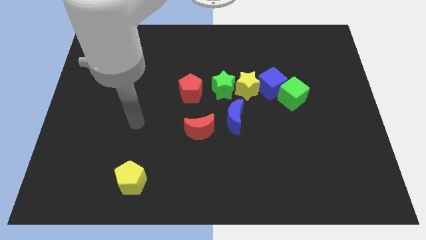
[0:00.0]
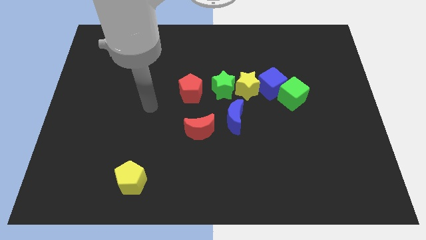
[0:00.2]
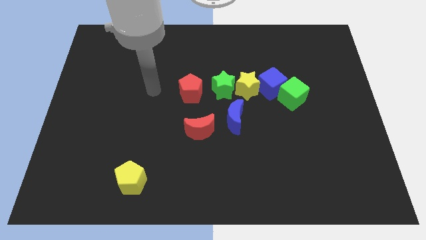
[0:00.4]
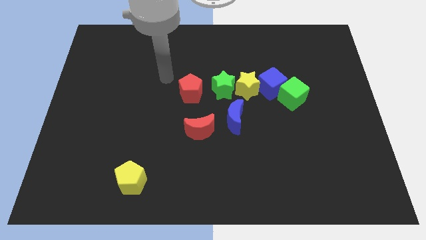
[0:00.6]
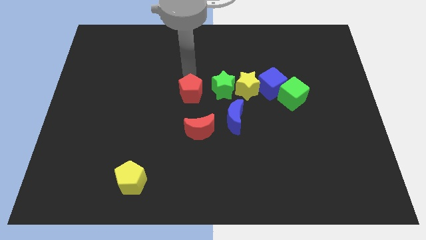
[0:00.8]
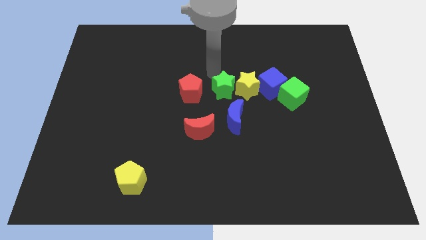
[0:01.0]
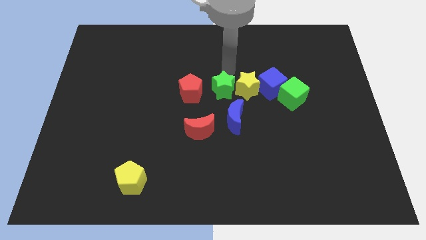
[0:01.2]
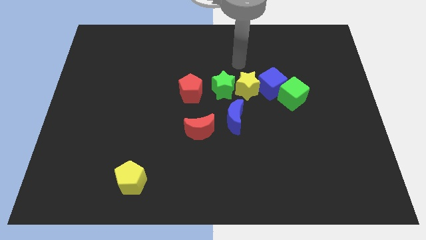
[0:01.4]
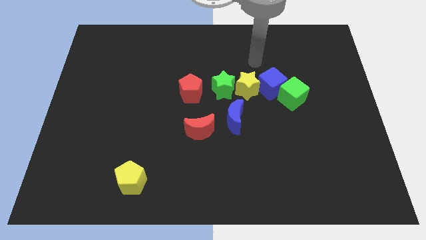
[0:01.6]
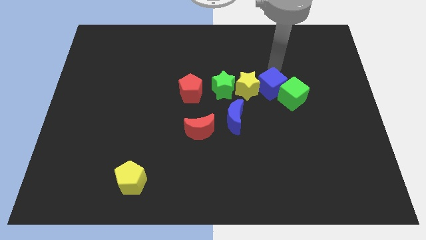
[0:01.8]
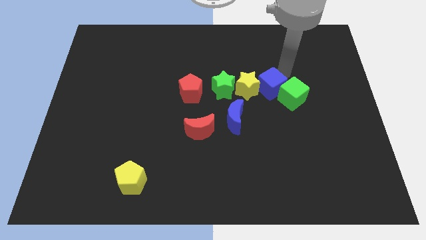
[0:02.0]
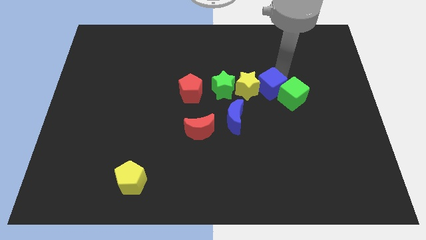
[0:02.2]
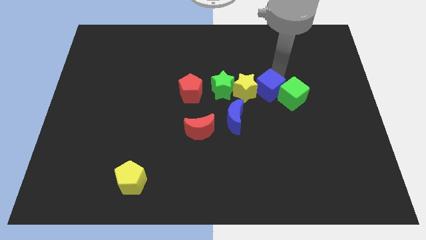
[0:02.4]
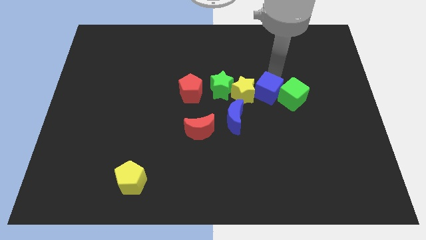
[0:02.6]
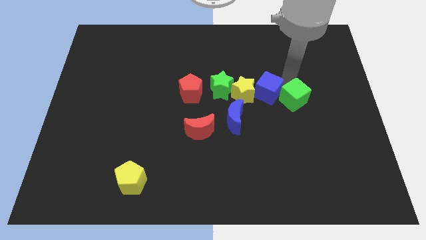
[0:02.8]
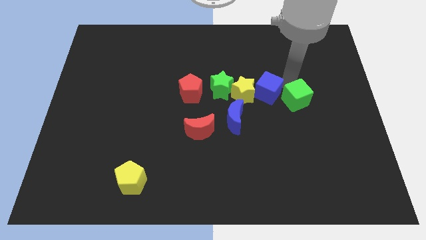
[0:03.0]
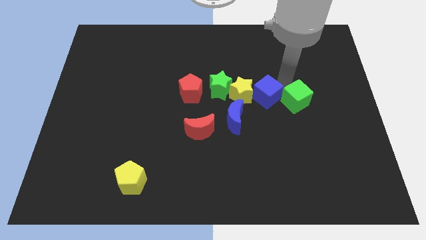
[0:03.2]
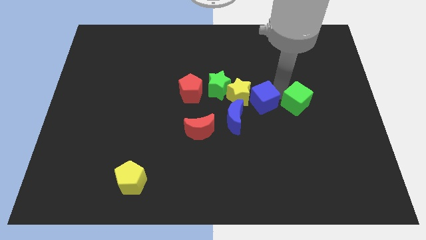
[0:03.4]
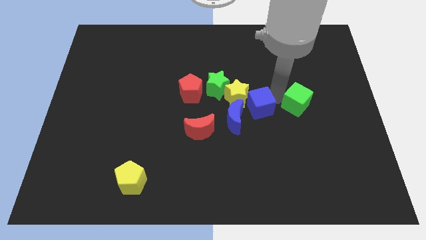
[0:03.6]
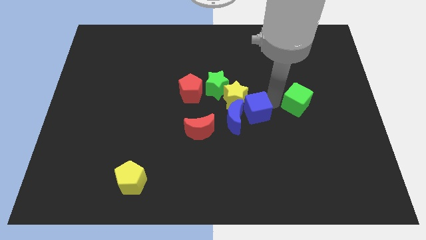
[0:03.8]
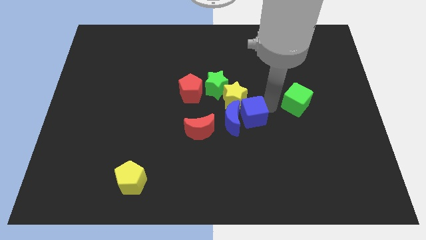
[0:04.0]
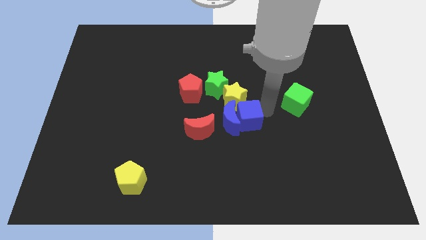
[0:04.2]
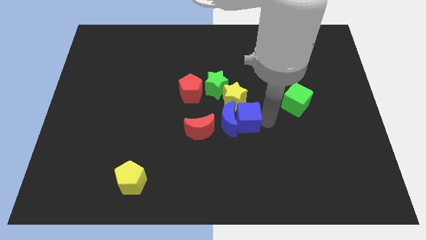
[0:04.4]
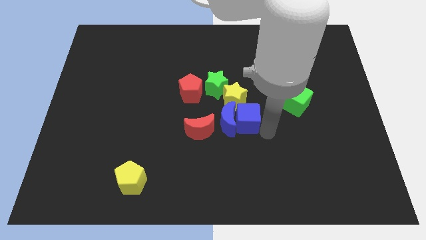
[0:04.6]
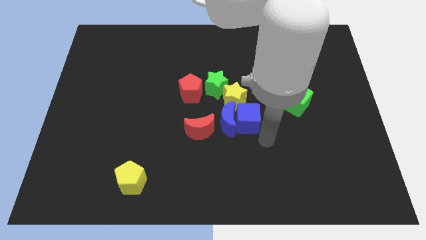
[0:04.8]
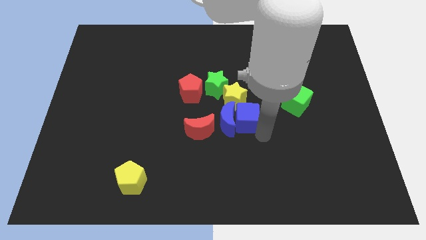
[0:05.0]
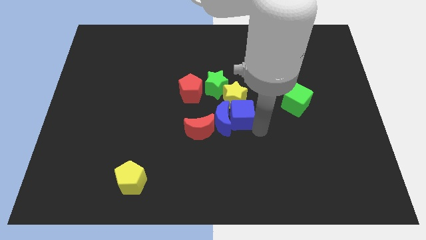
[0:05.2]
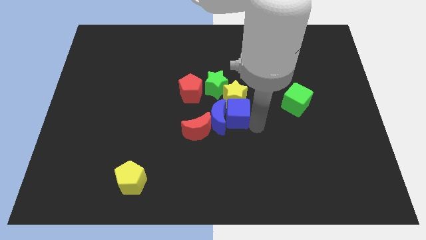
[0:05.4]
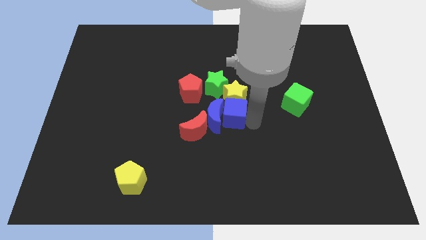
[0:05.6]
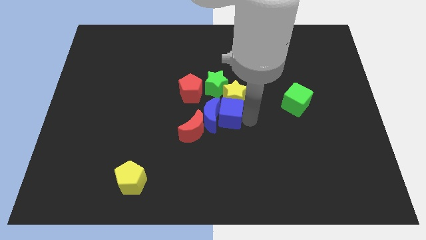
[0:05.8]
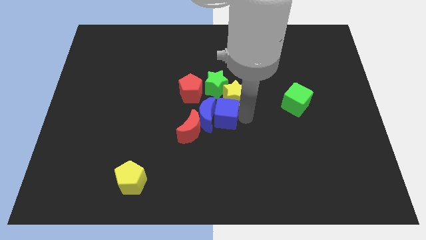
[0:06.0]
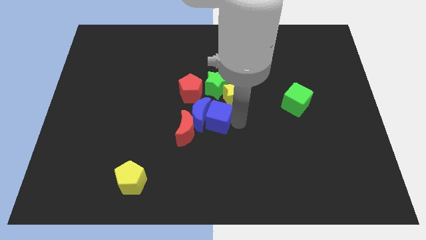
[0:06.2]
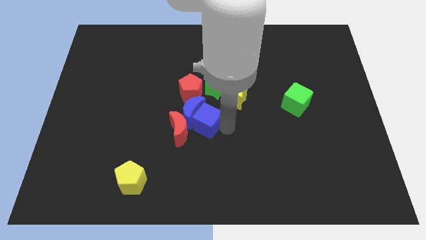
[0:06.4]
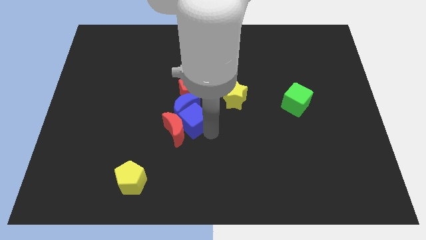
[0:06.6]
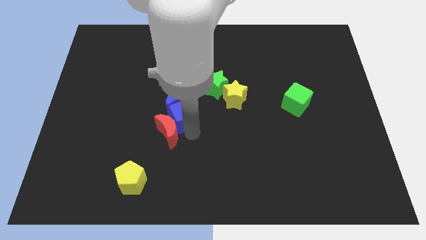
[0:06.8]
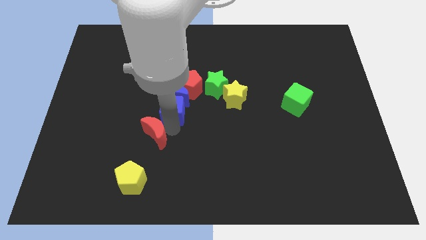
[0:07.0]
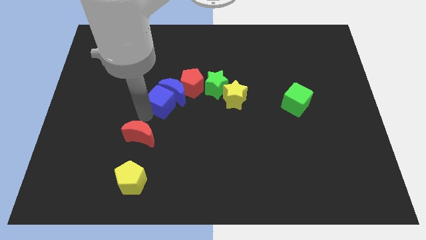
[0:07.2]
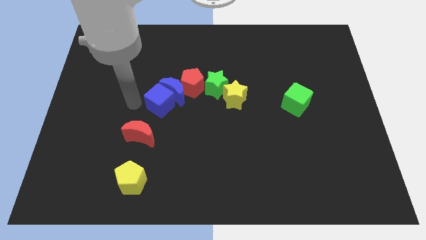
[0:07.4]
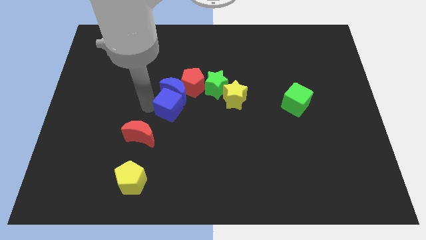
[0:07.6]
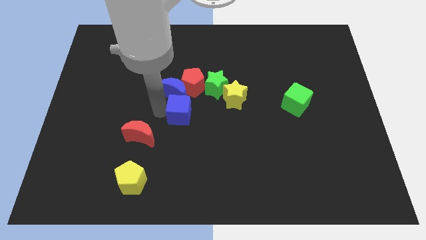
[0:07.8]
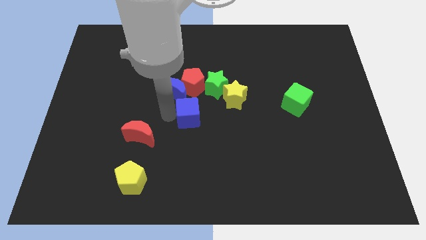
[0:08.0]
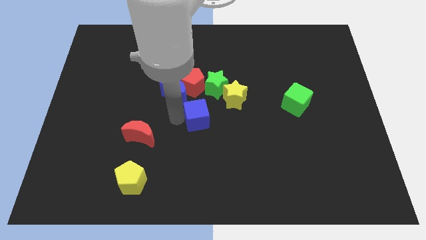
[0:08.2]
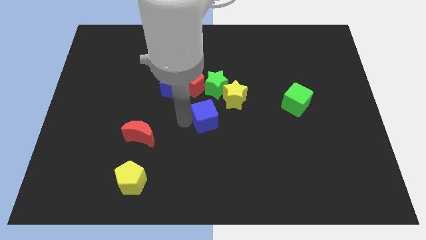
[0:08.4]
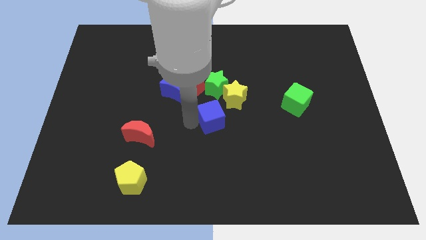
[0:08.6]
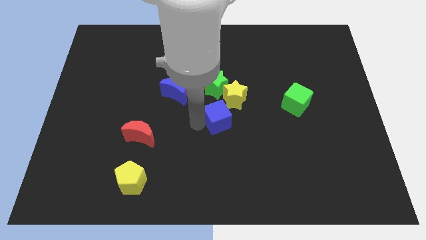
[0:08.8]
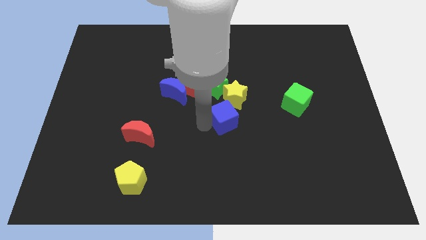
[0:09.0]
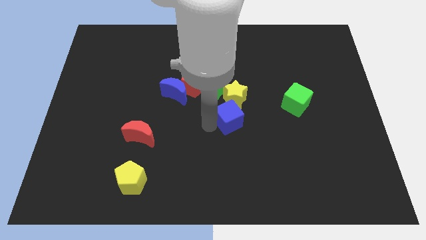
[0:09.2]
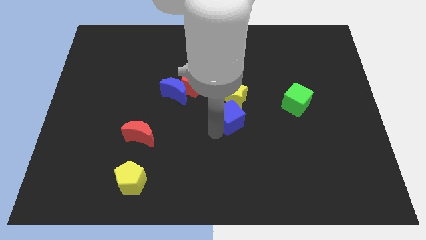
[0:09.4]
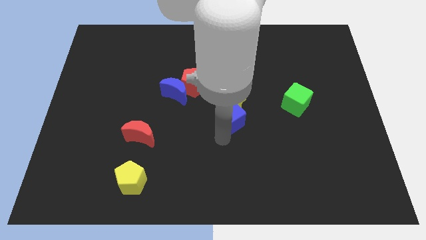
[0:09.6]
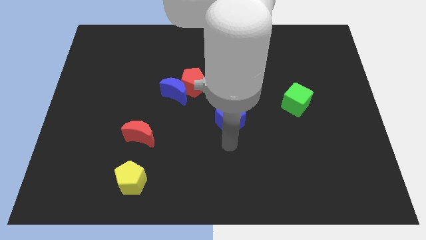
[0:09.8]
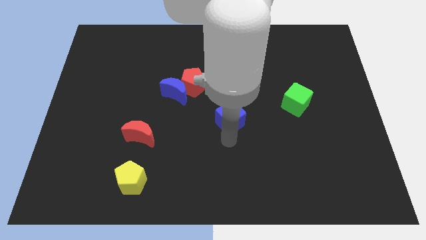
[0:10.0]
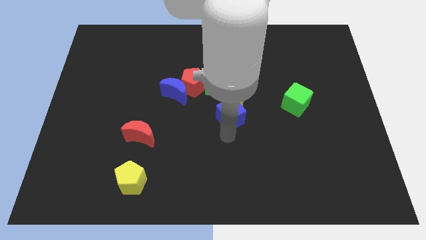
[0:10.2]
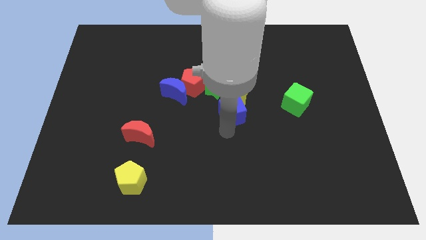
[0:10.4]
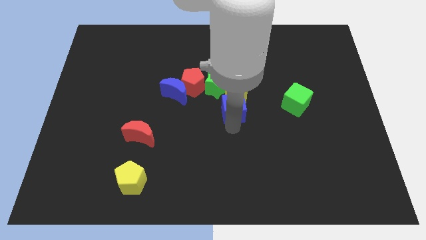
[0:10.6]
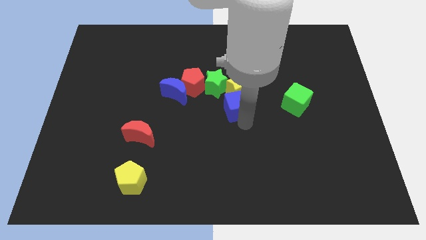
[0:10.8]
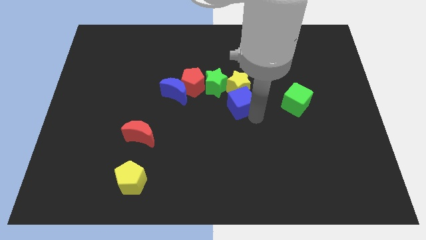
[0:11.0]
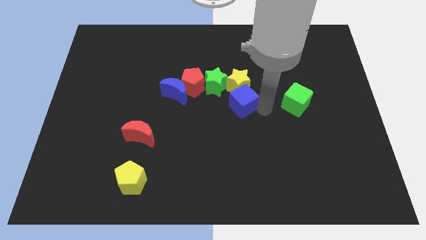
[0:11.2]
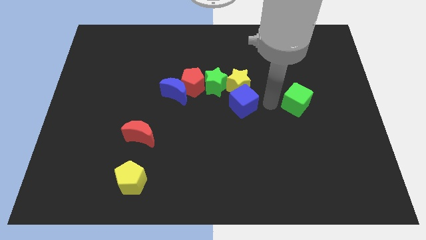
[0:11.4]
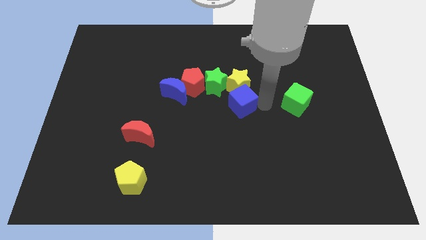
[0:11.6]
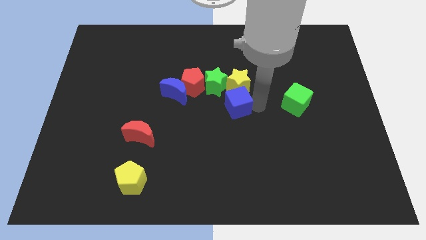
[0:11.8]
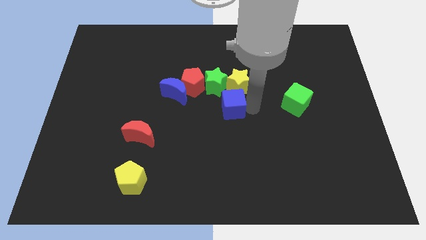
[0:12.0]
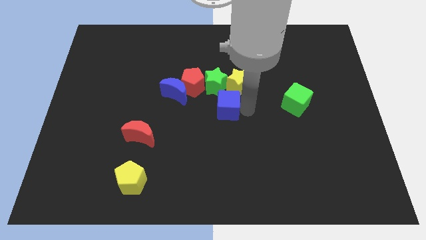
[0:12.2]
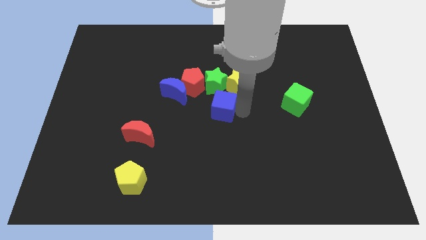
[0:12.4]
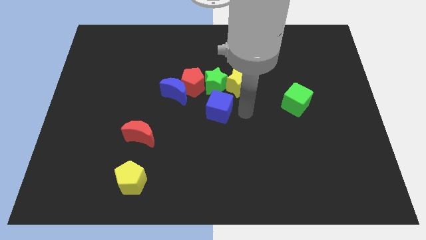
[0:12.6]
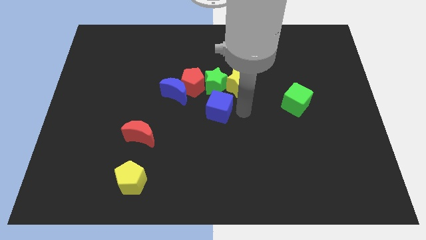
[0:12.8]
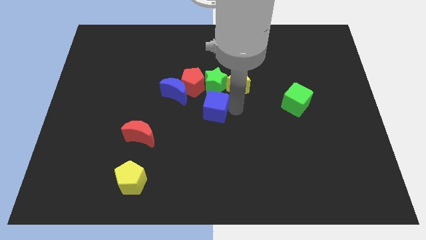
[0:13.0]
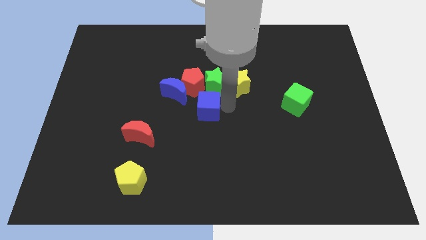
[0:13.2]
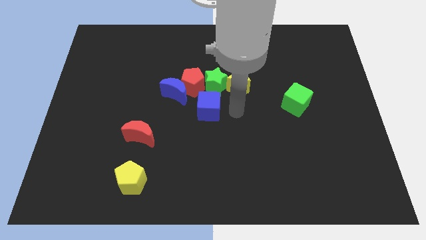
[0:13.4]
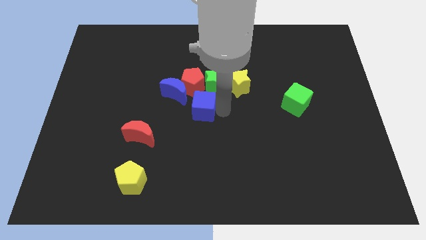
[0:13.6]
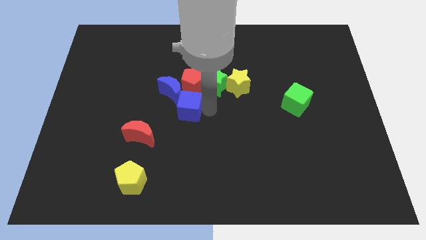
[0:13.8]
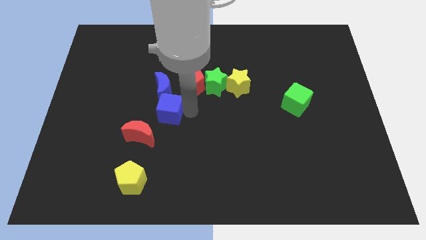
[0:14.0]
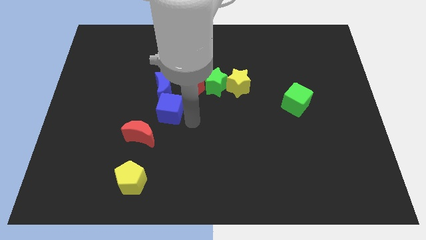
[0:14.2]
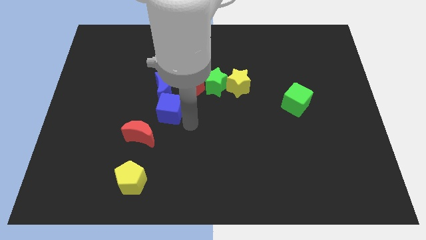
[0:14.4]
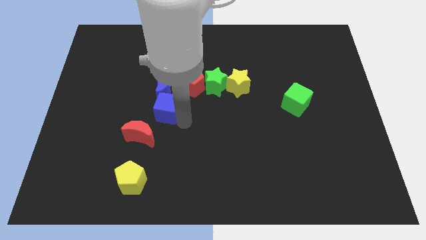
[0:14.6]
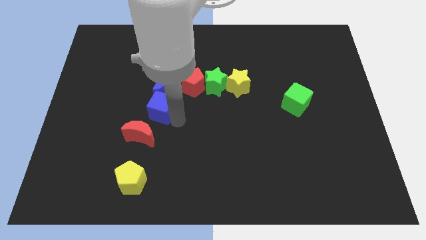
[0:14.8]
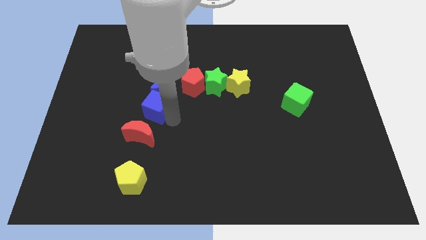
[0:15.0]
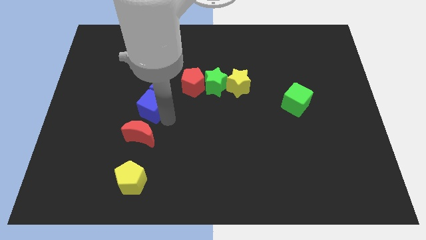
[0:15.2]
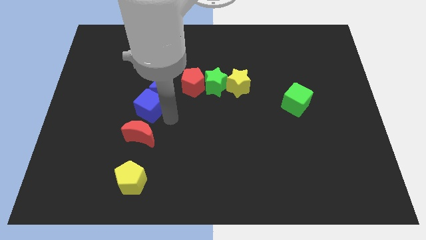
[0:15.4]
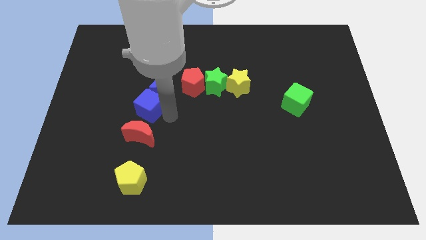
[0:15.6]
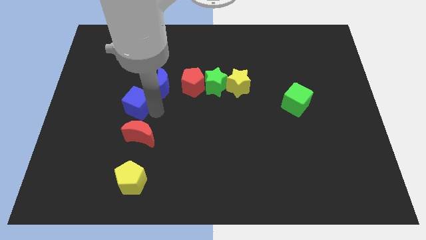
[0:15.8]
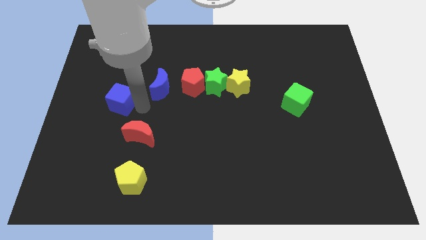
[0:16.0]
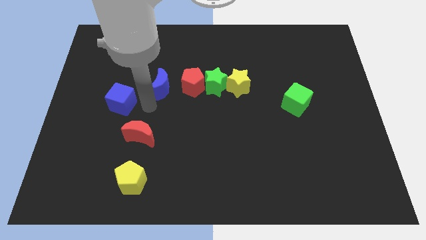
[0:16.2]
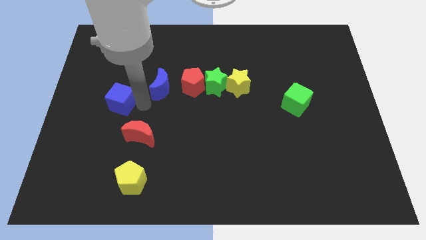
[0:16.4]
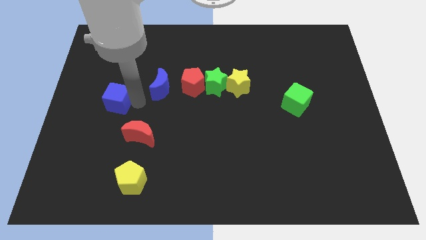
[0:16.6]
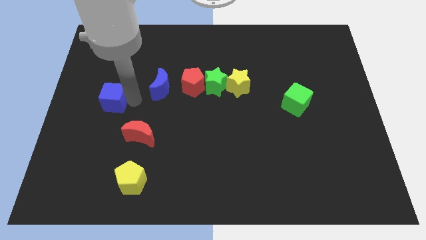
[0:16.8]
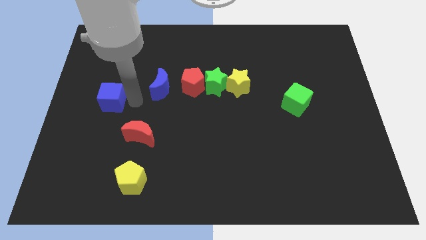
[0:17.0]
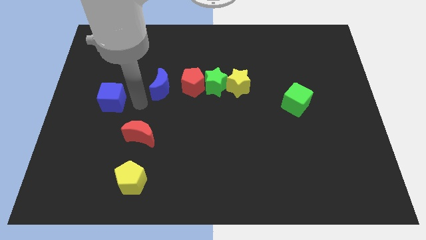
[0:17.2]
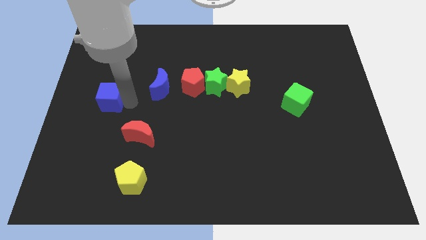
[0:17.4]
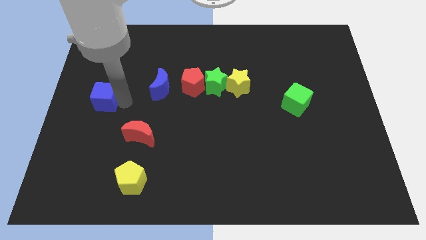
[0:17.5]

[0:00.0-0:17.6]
slide the blue cube to the left side
